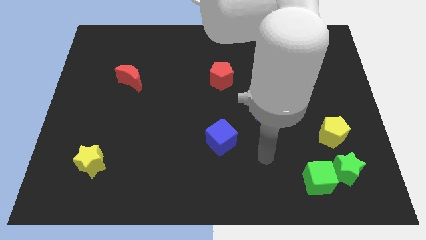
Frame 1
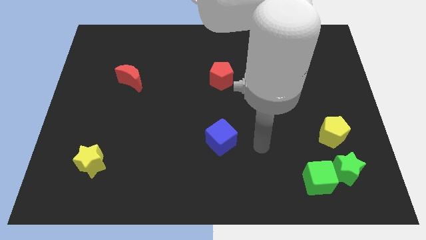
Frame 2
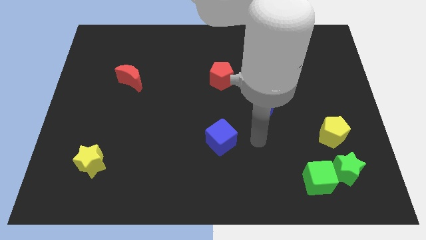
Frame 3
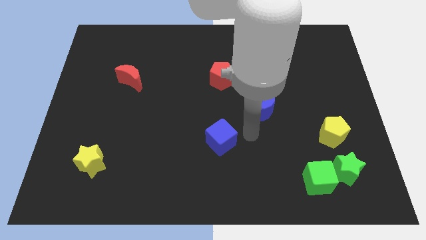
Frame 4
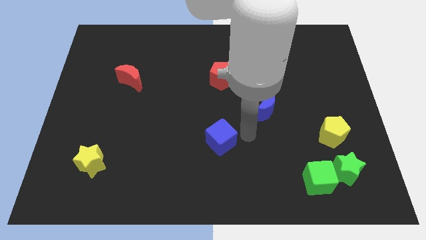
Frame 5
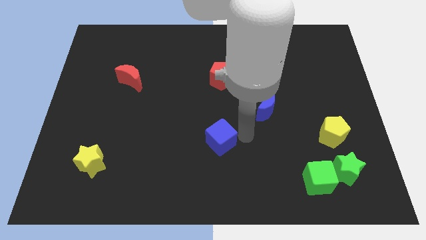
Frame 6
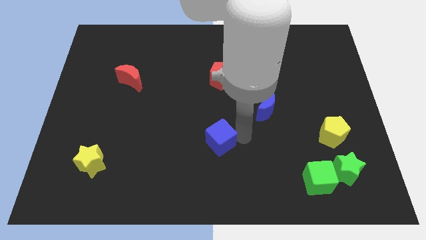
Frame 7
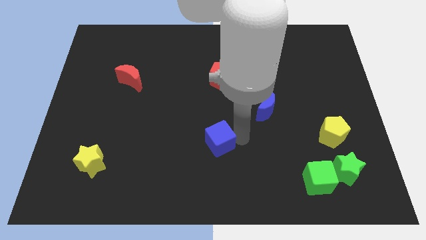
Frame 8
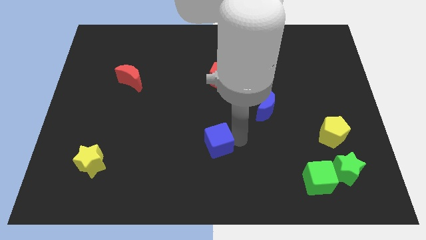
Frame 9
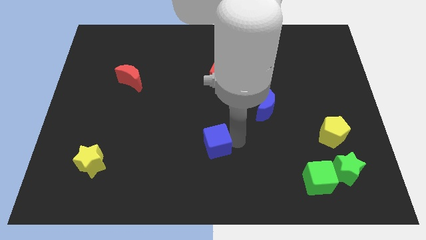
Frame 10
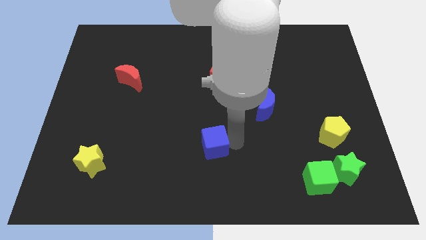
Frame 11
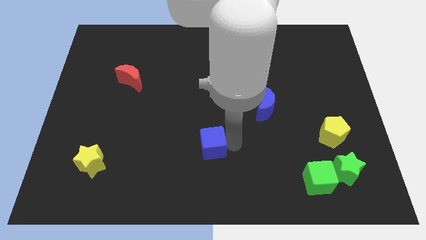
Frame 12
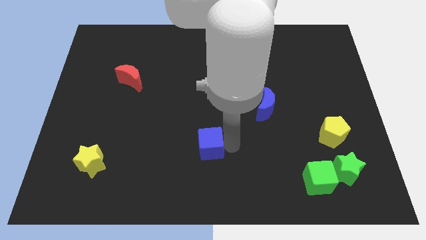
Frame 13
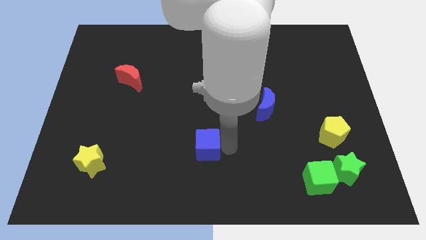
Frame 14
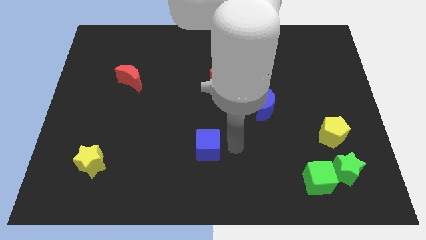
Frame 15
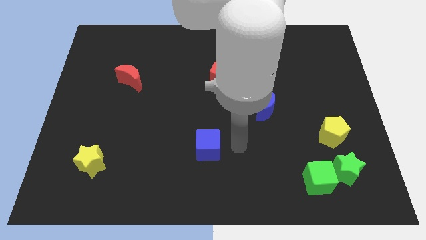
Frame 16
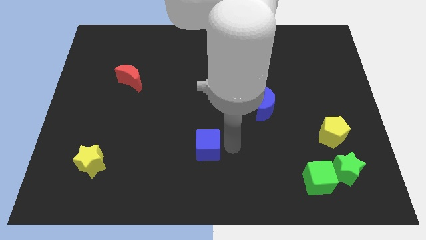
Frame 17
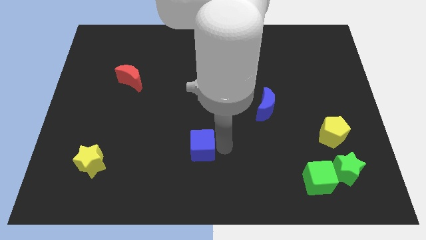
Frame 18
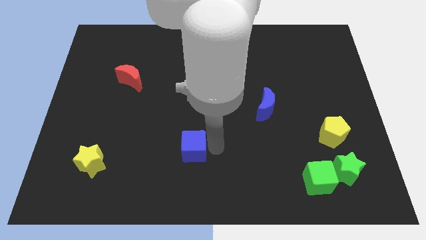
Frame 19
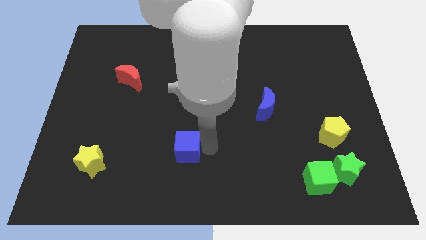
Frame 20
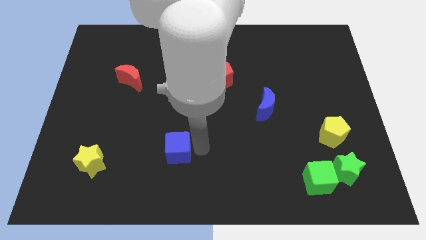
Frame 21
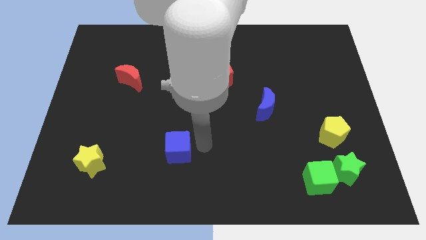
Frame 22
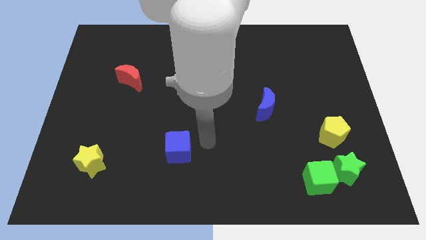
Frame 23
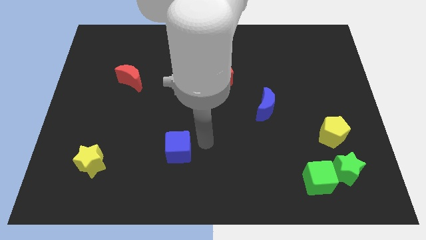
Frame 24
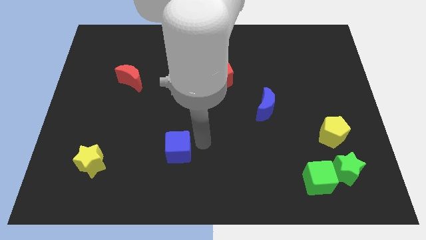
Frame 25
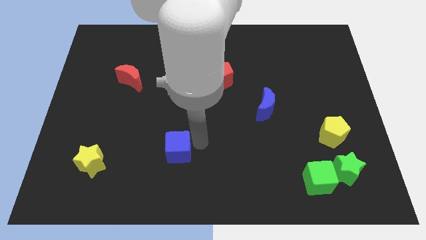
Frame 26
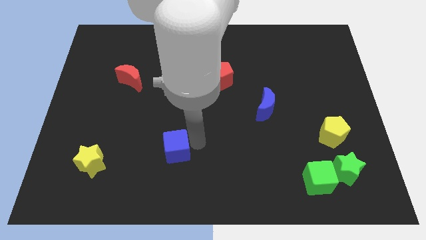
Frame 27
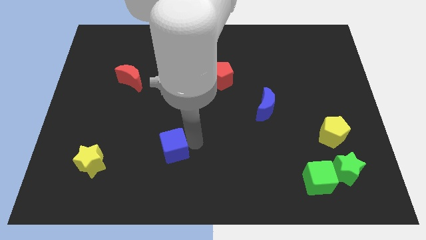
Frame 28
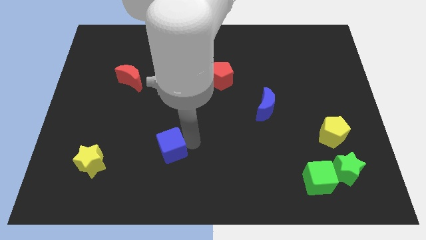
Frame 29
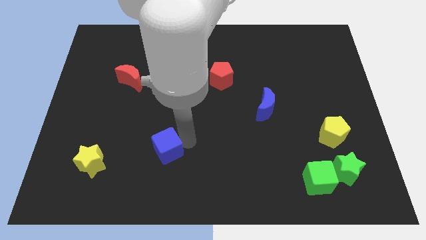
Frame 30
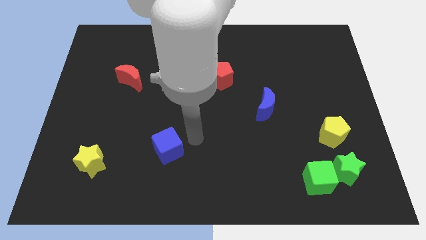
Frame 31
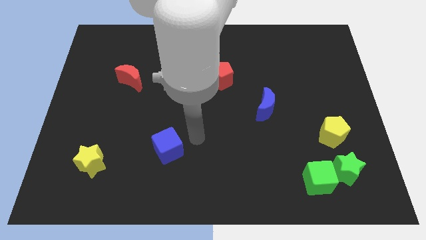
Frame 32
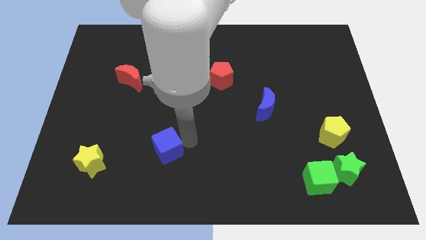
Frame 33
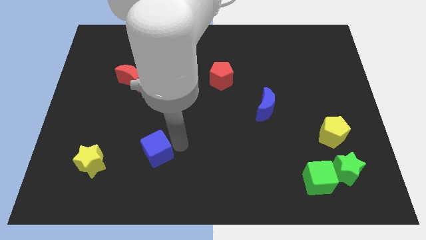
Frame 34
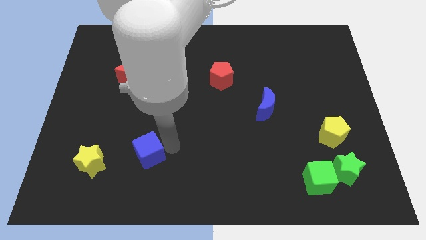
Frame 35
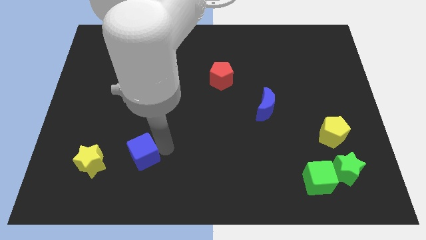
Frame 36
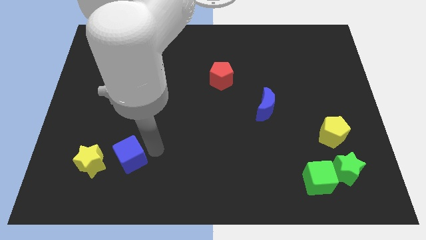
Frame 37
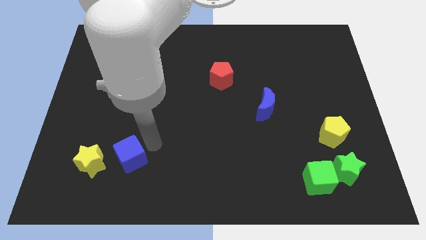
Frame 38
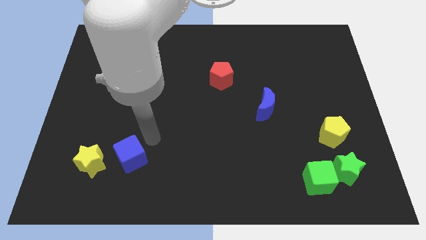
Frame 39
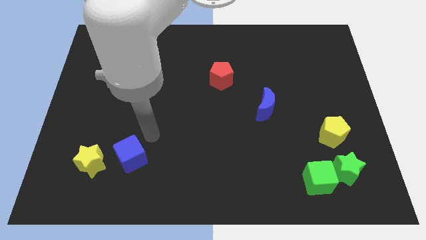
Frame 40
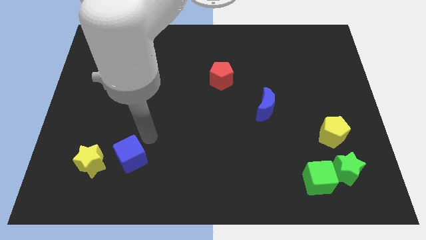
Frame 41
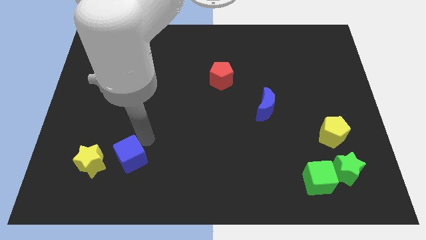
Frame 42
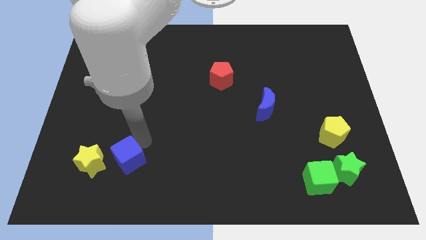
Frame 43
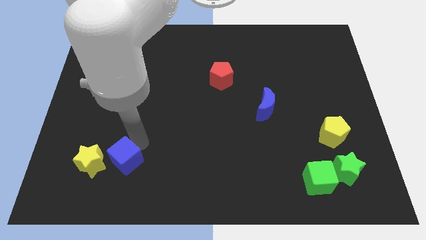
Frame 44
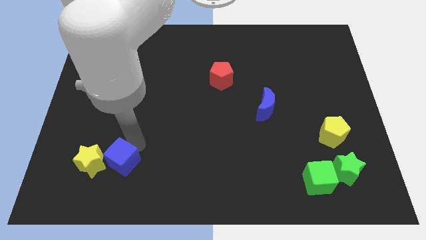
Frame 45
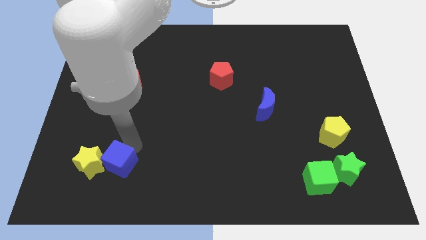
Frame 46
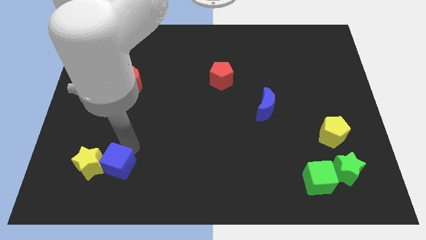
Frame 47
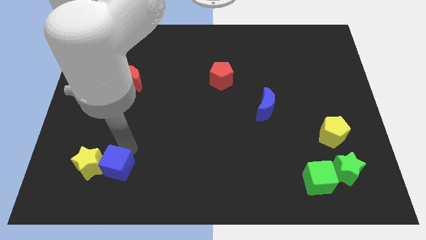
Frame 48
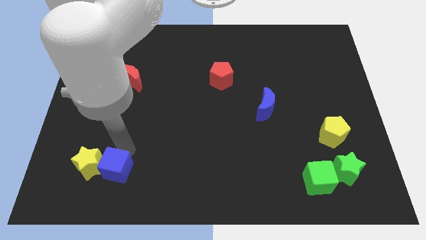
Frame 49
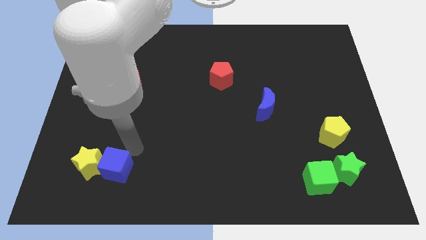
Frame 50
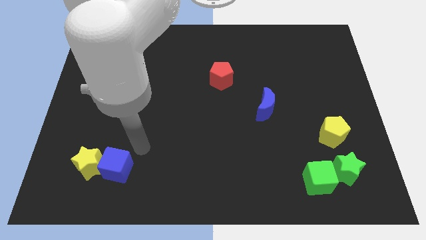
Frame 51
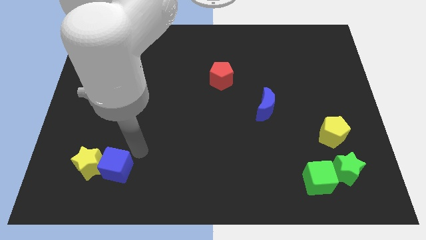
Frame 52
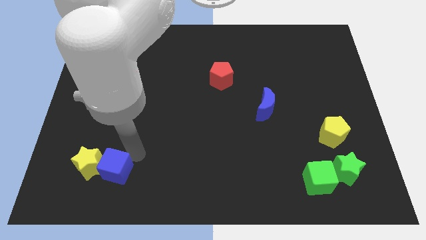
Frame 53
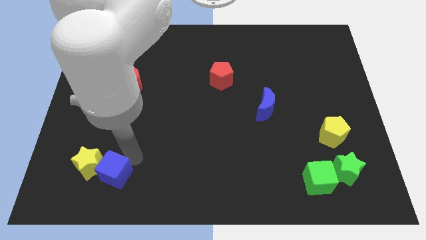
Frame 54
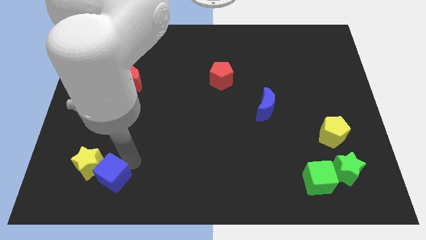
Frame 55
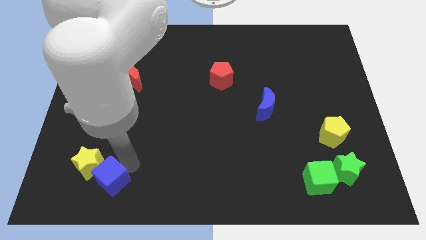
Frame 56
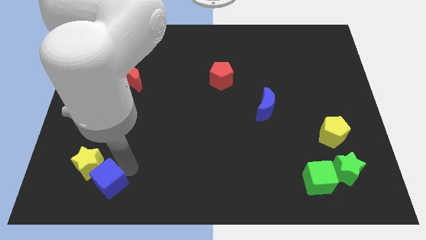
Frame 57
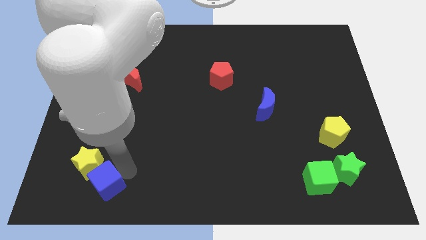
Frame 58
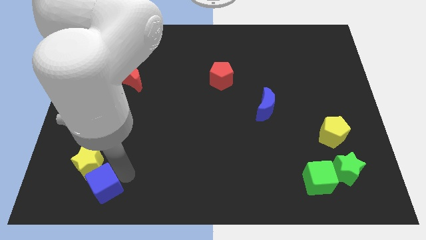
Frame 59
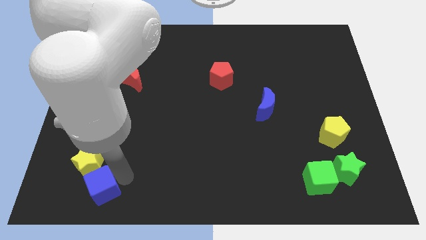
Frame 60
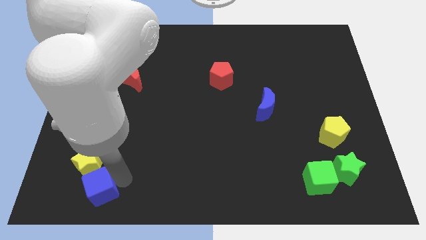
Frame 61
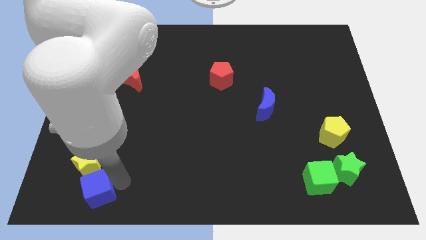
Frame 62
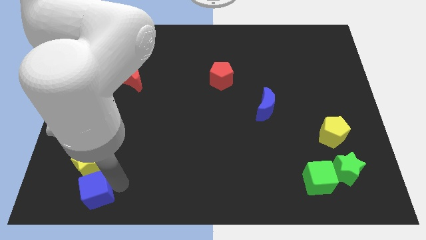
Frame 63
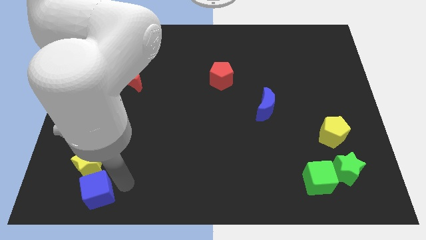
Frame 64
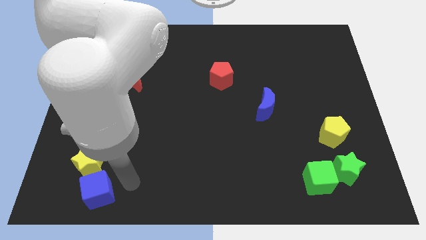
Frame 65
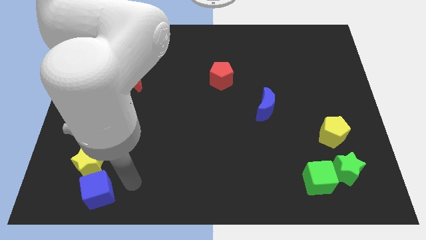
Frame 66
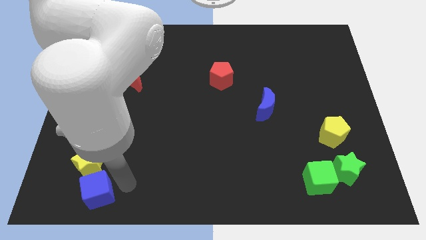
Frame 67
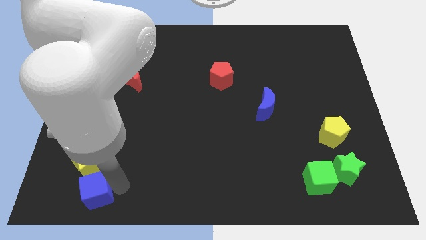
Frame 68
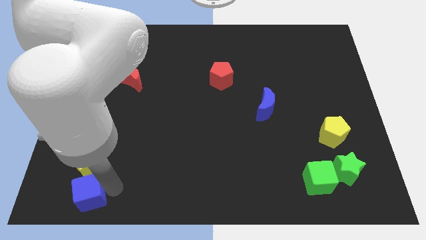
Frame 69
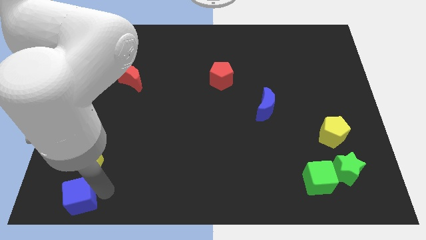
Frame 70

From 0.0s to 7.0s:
push the blue cube to the bottom left
